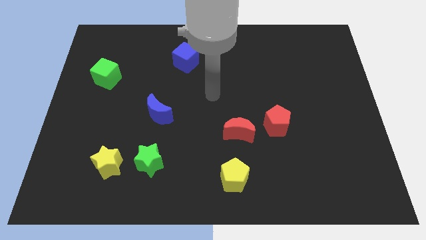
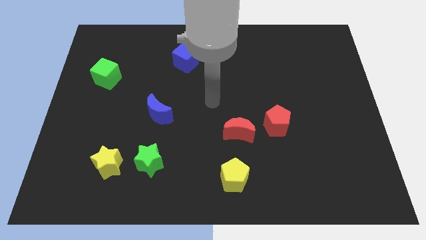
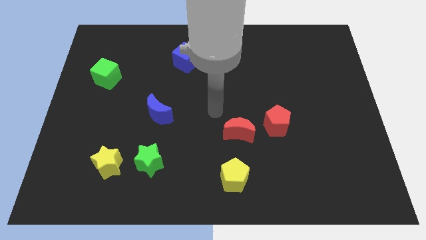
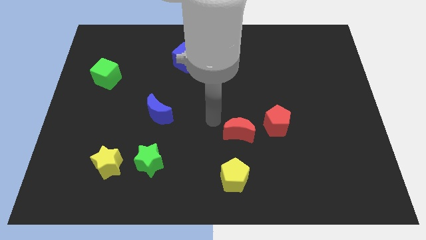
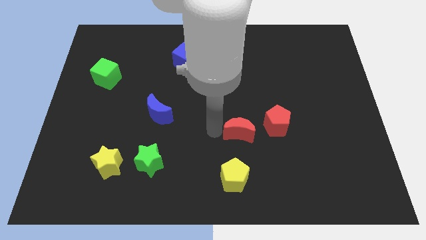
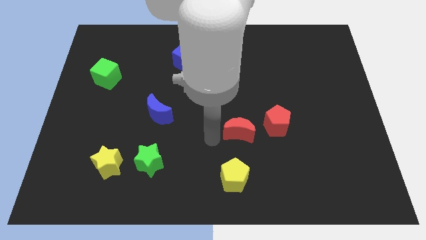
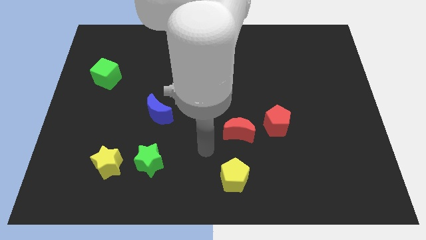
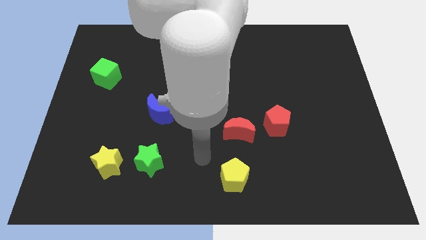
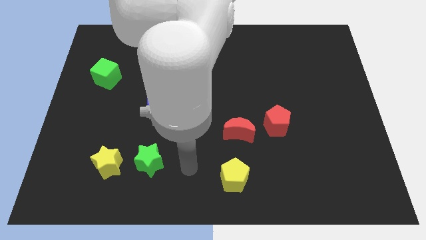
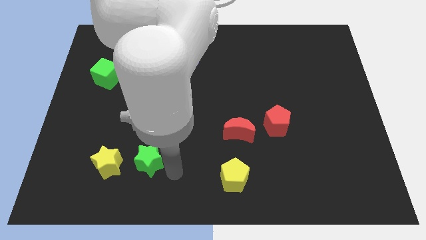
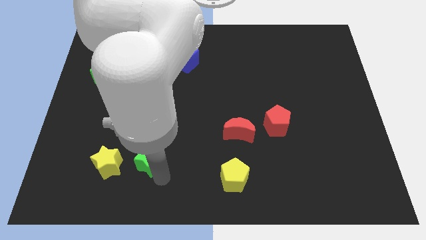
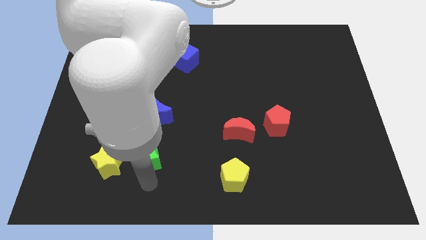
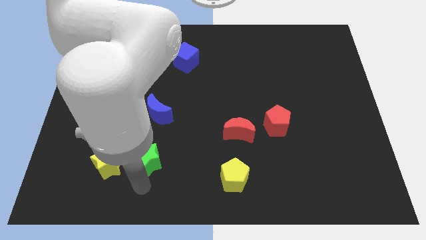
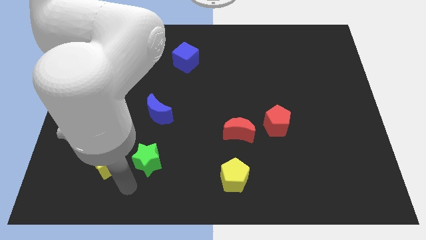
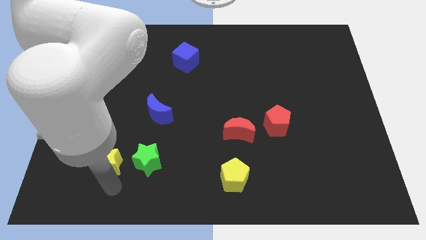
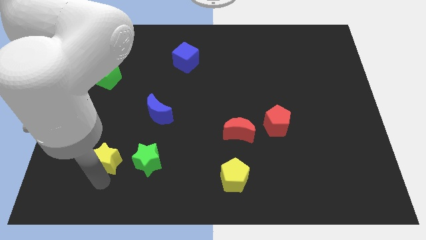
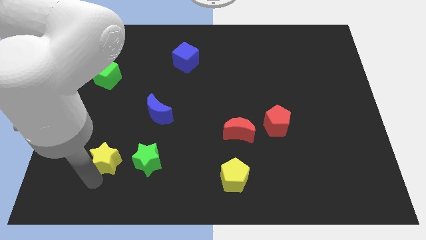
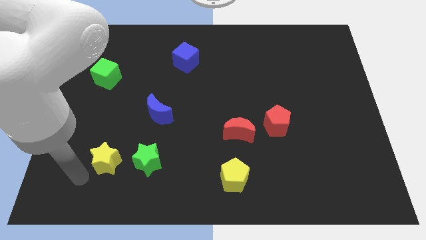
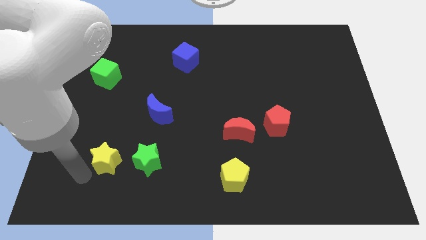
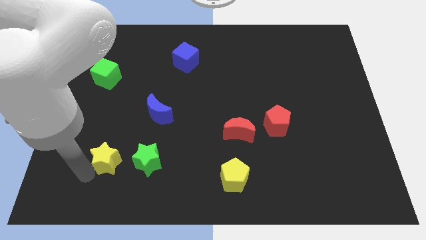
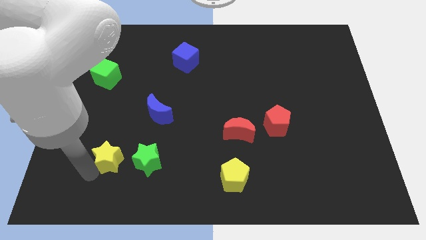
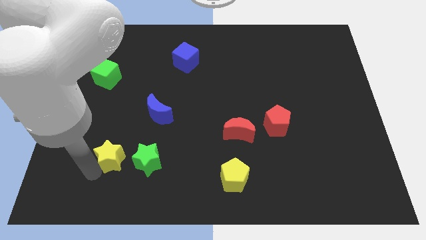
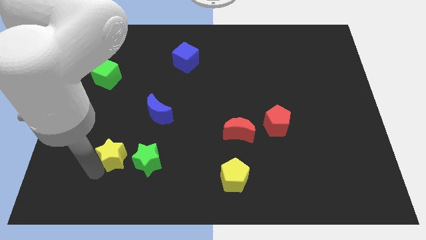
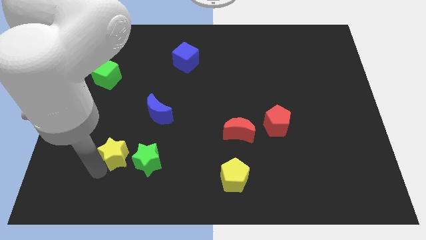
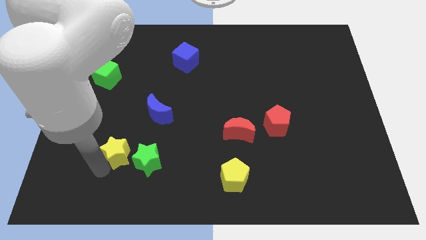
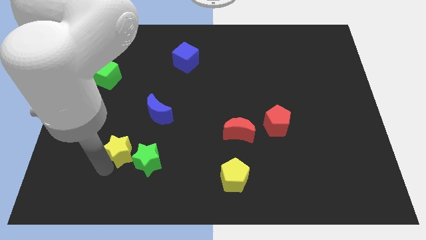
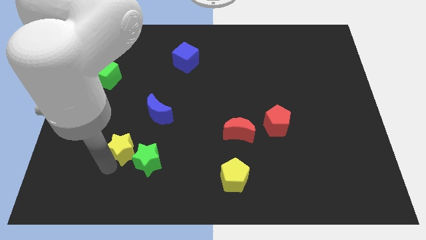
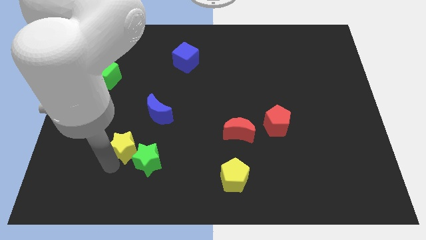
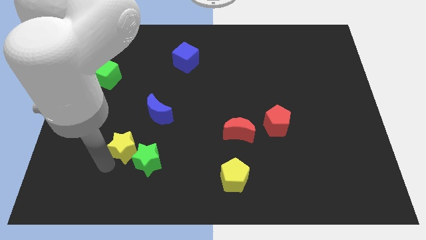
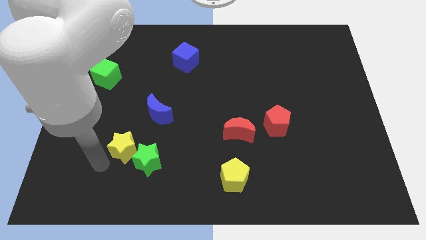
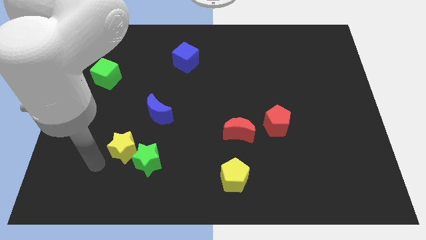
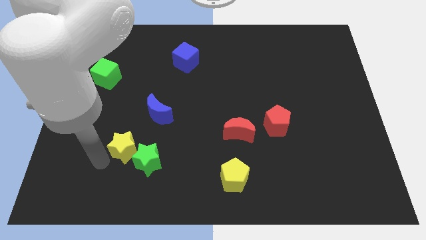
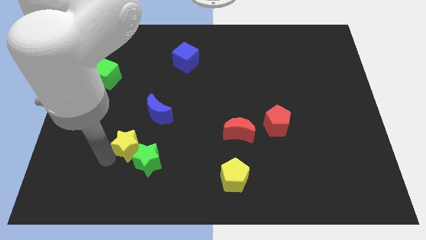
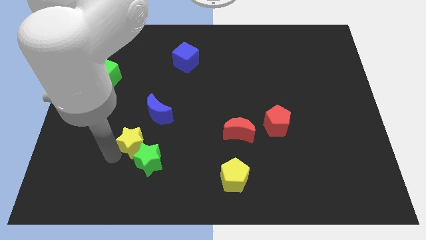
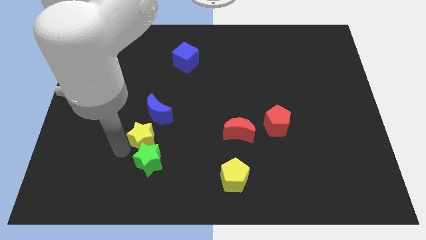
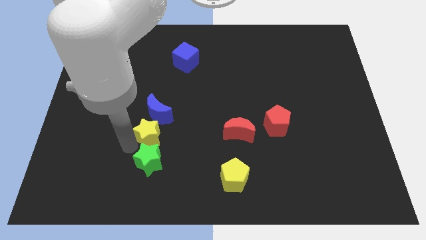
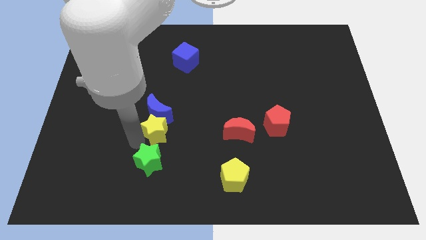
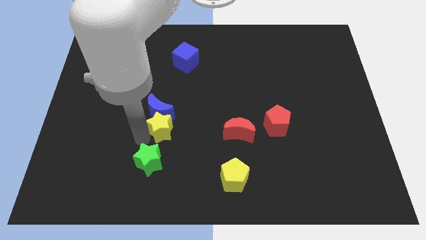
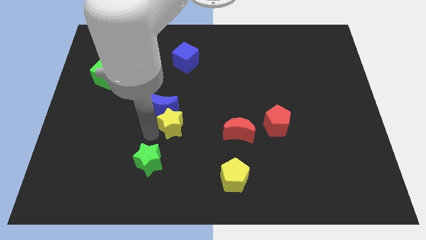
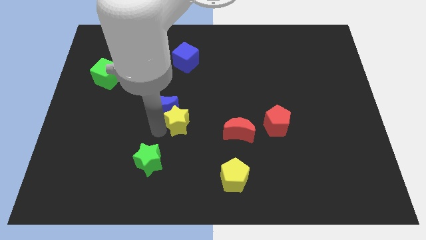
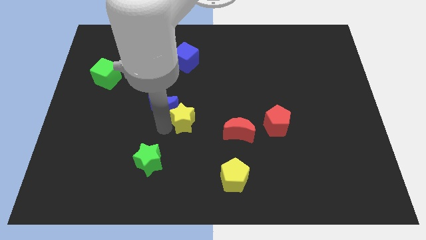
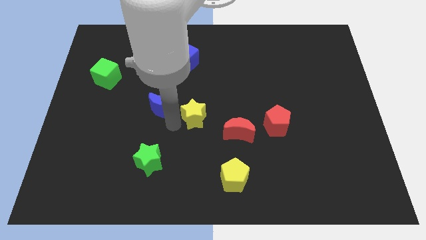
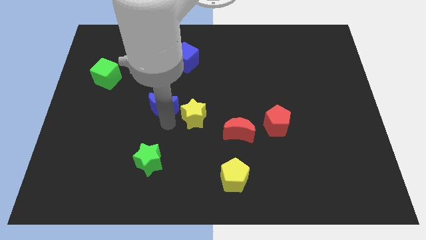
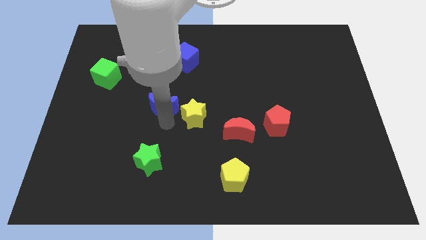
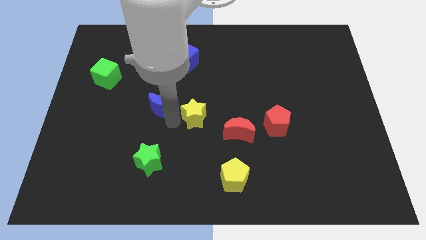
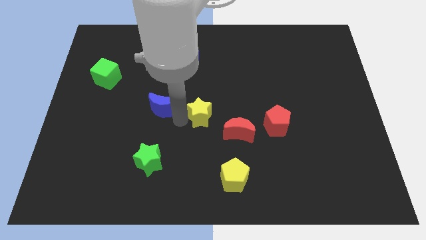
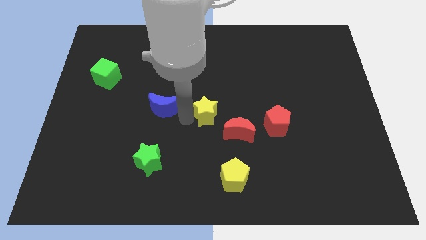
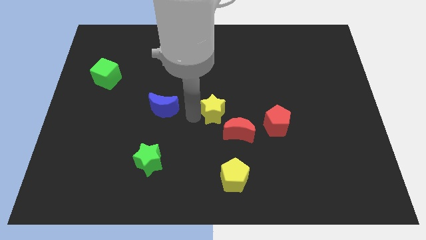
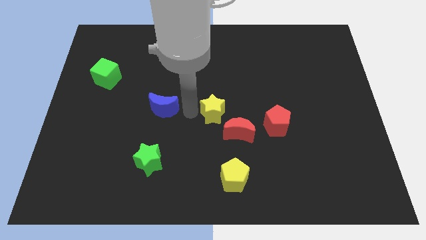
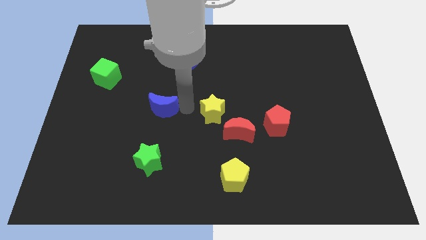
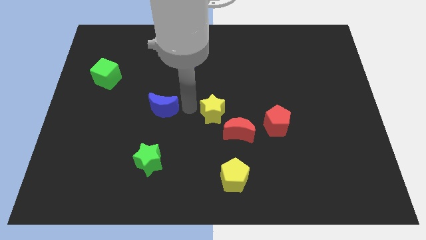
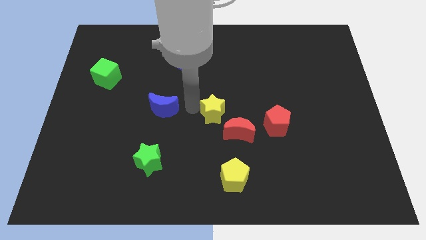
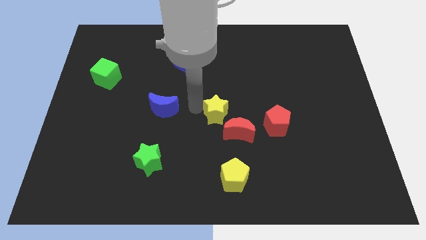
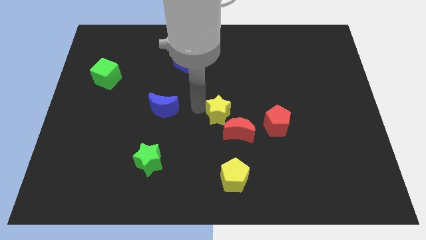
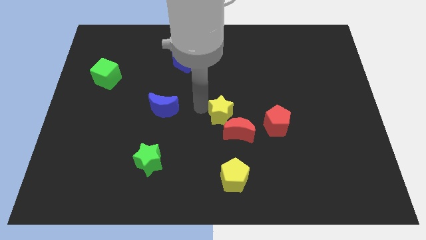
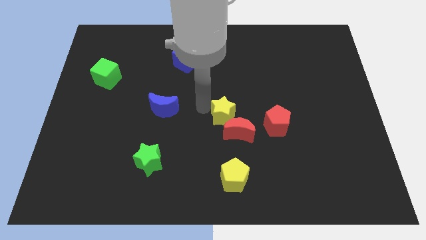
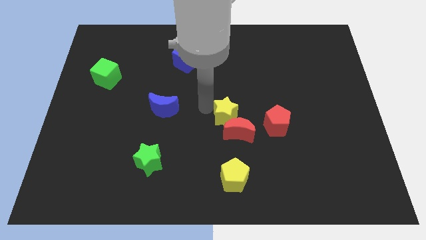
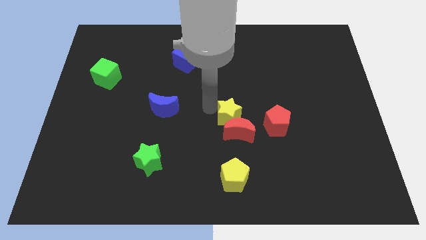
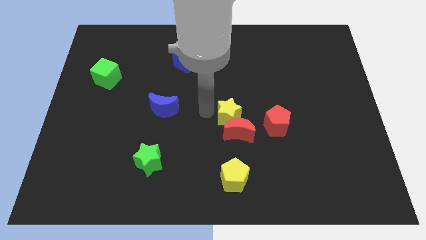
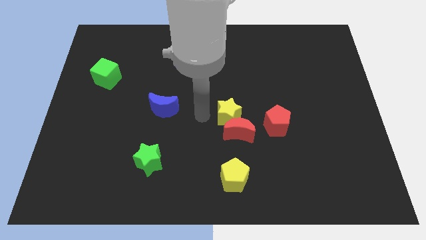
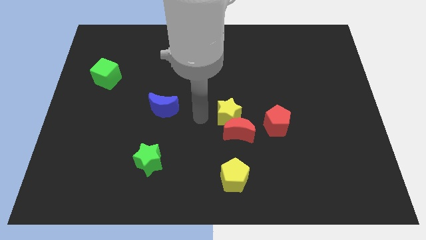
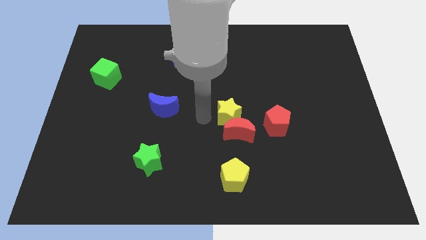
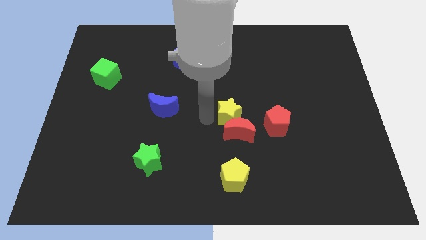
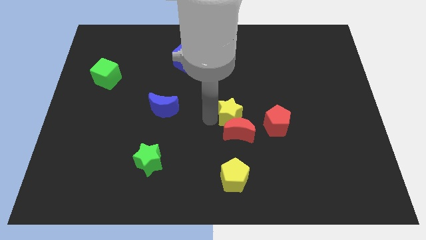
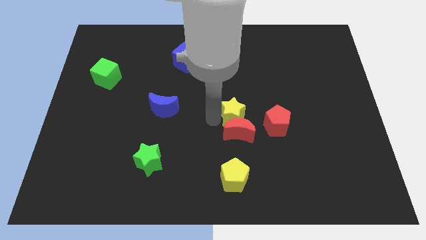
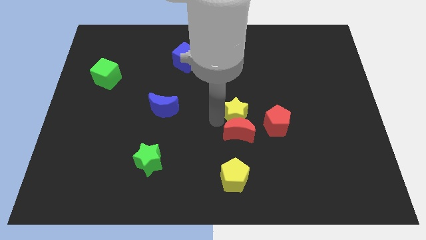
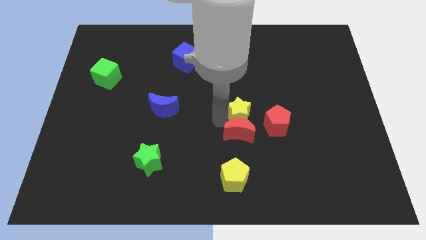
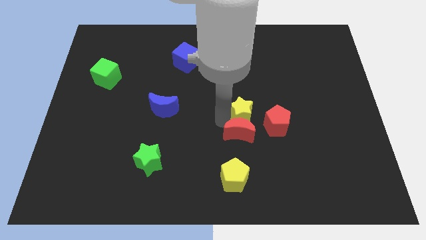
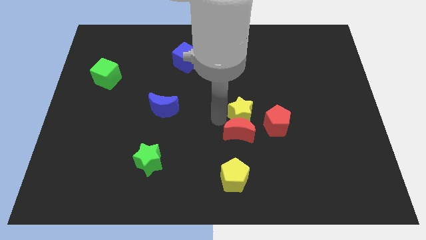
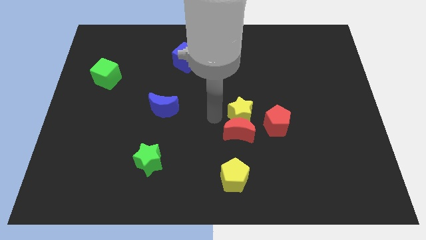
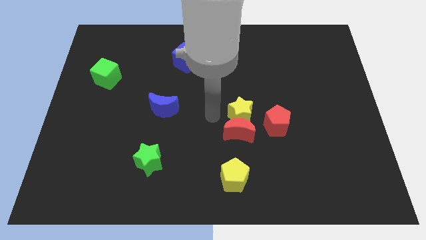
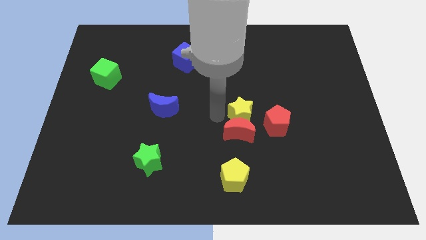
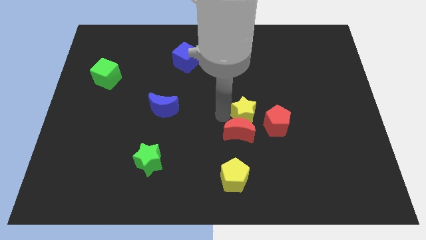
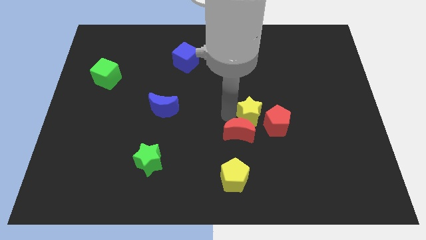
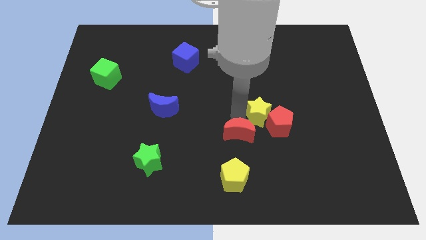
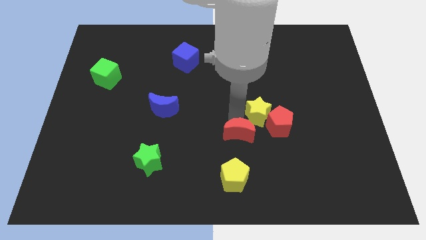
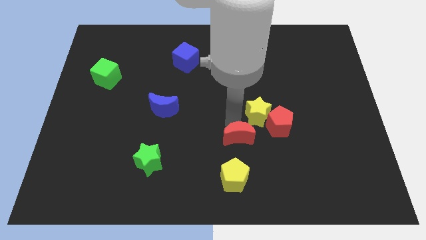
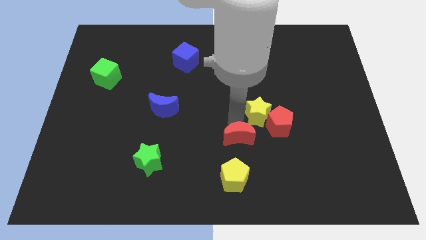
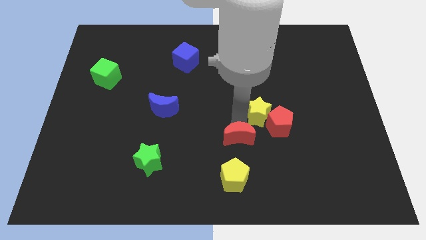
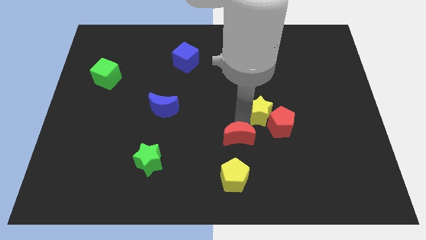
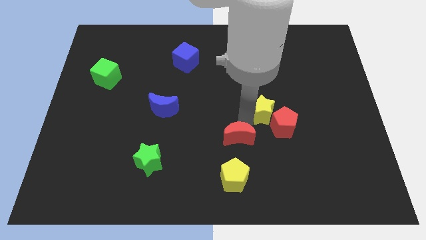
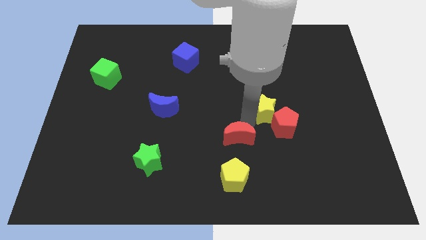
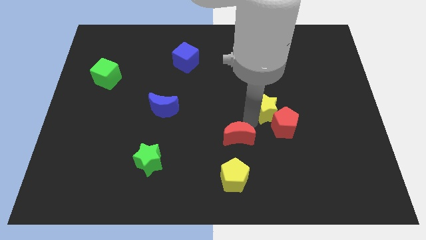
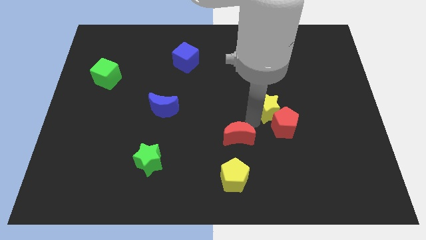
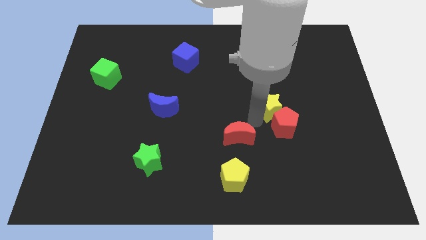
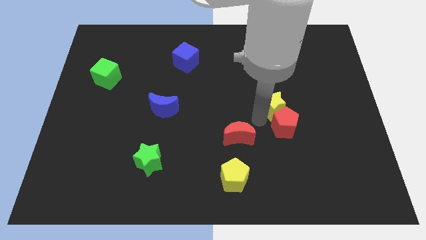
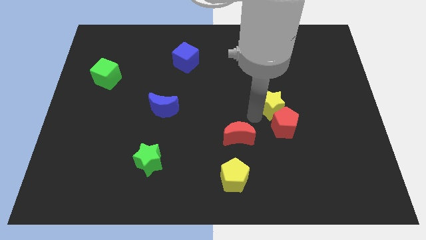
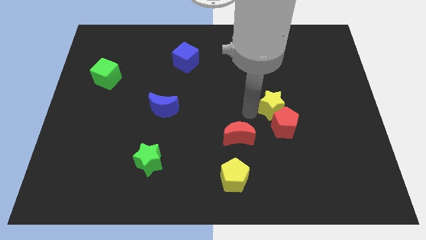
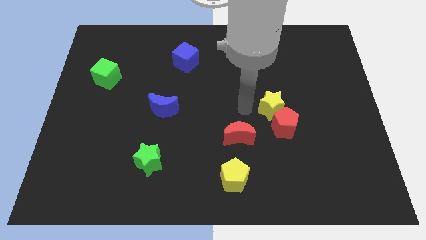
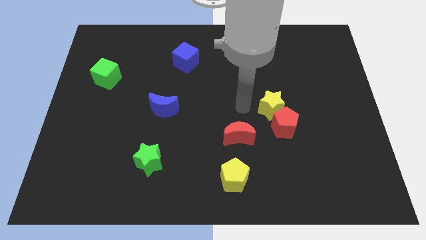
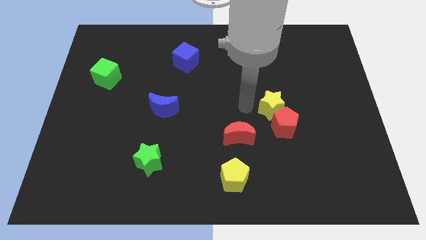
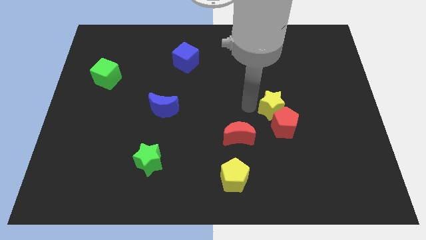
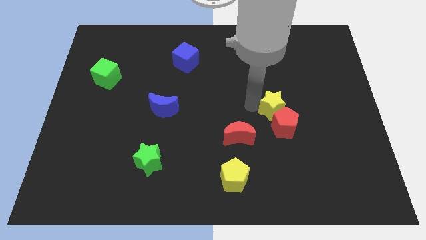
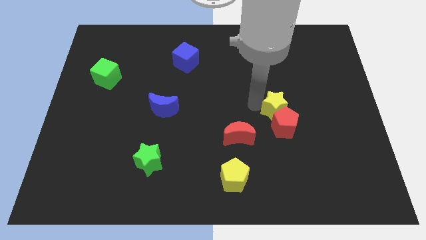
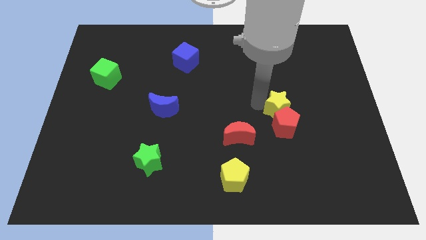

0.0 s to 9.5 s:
slide the yellow star diagonally up and to the right of the red pentagon
